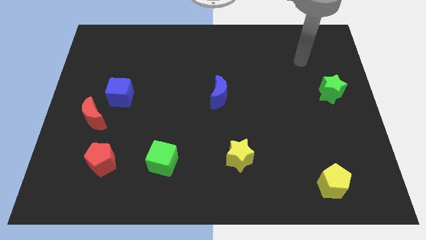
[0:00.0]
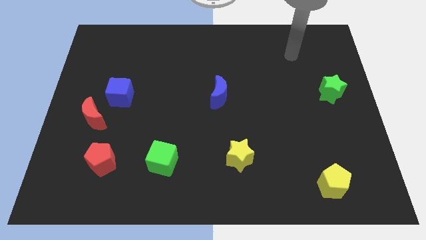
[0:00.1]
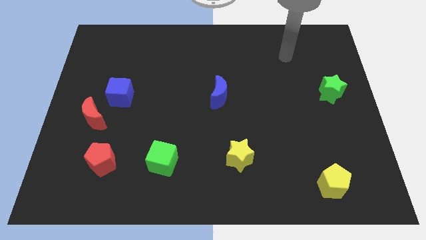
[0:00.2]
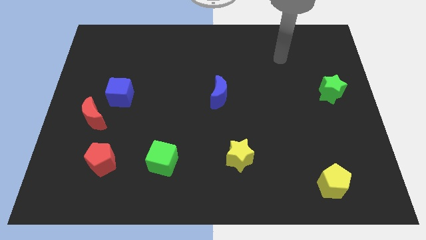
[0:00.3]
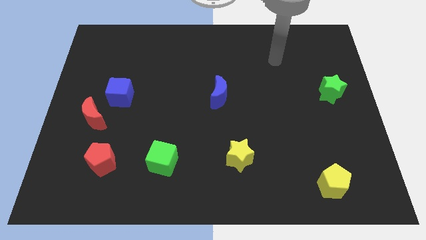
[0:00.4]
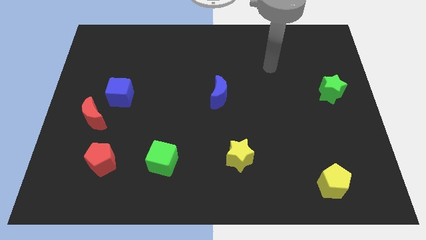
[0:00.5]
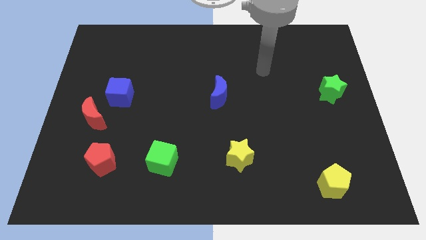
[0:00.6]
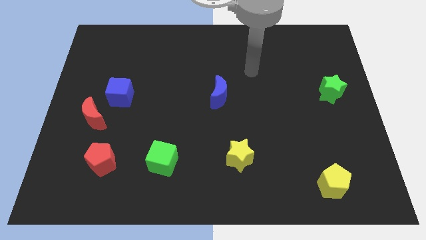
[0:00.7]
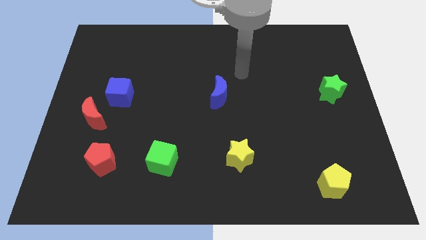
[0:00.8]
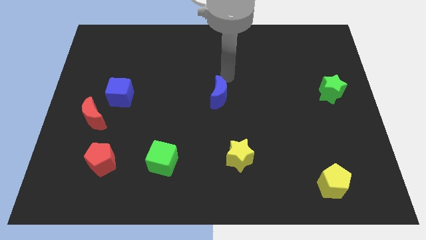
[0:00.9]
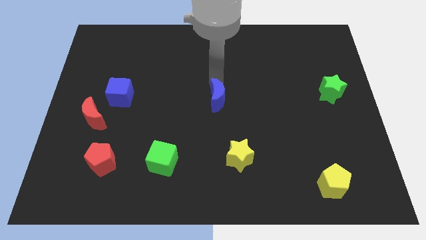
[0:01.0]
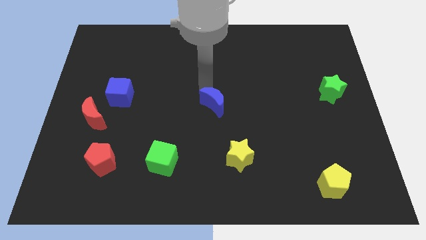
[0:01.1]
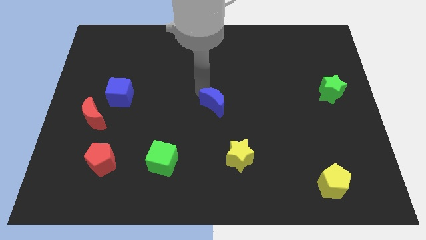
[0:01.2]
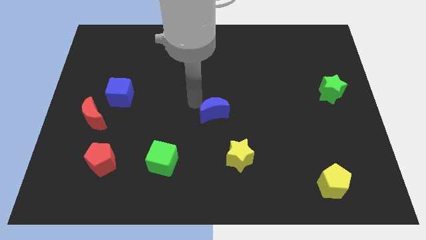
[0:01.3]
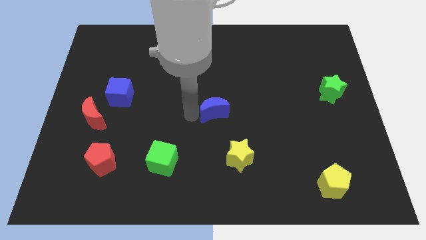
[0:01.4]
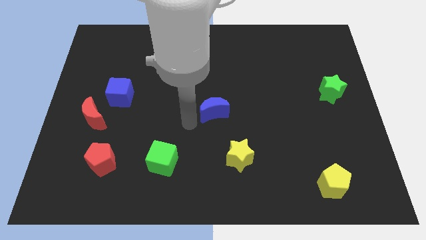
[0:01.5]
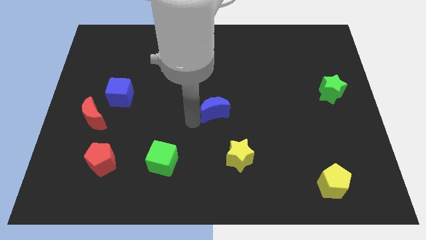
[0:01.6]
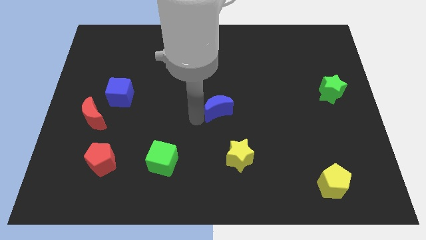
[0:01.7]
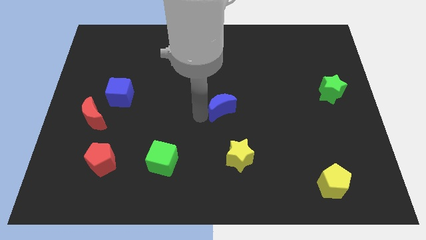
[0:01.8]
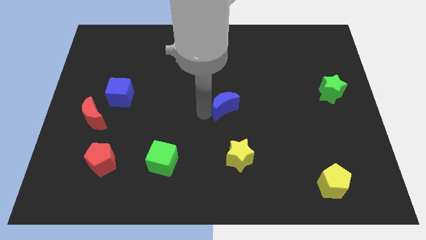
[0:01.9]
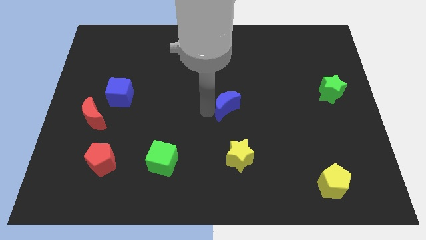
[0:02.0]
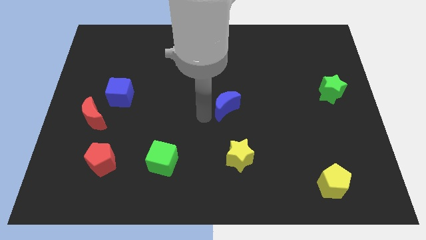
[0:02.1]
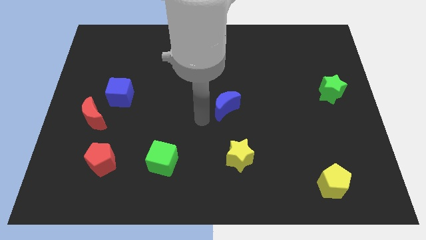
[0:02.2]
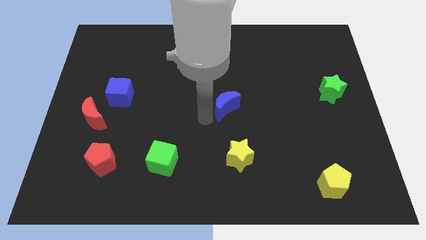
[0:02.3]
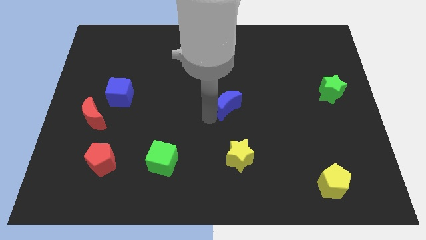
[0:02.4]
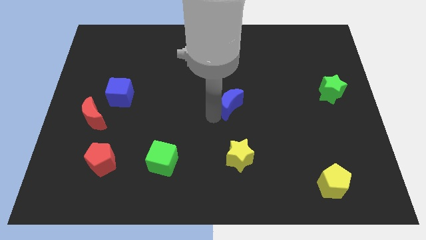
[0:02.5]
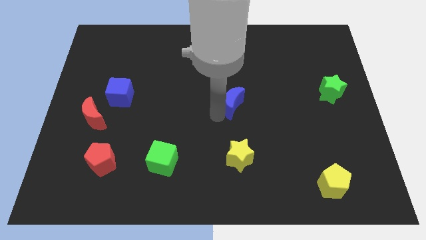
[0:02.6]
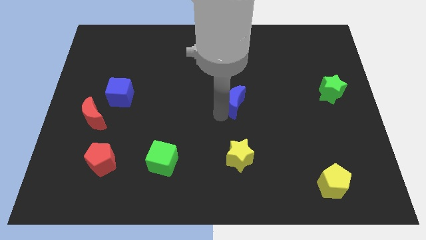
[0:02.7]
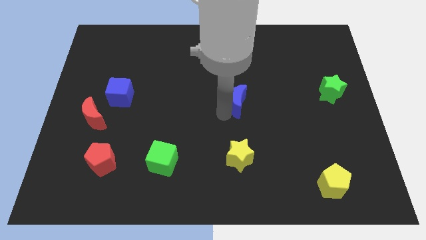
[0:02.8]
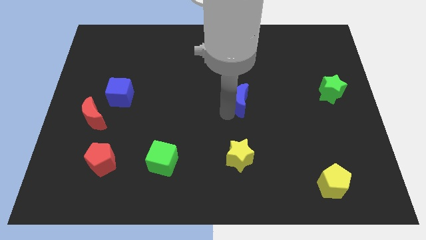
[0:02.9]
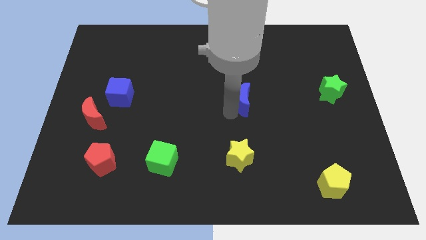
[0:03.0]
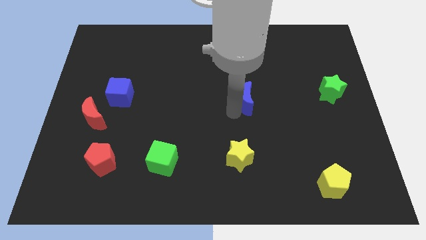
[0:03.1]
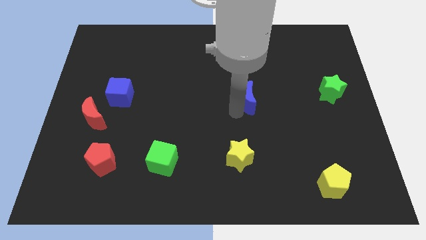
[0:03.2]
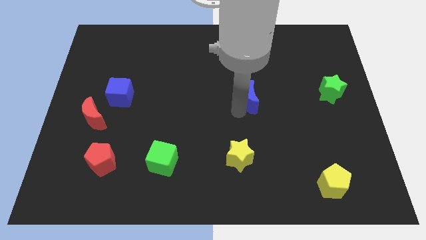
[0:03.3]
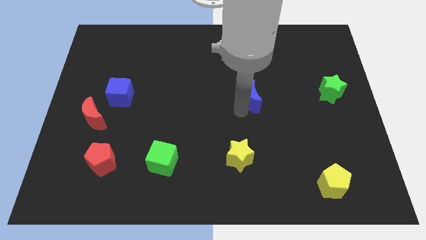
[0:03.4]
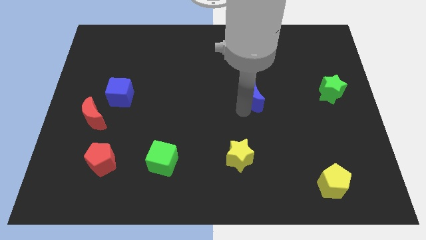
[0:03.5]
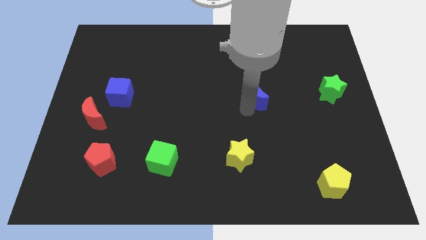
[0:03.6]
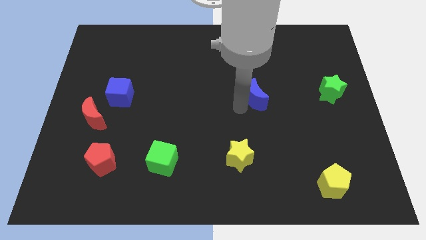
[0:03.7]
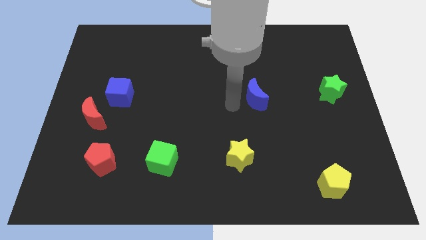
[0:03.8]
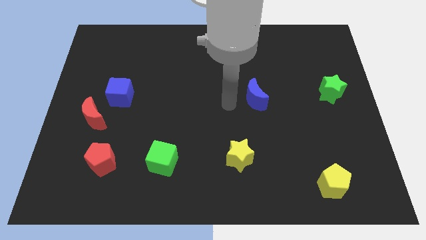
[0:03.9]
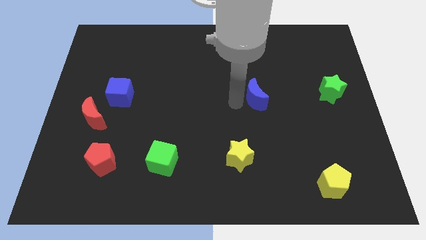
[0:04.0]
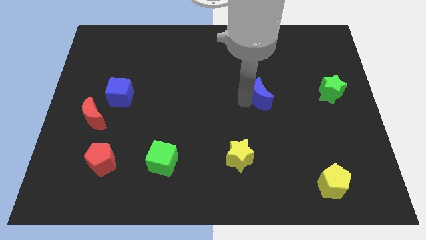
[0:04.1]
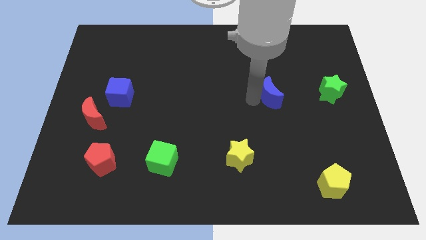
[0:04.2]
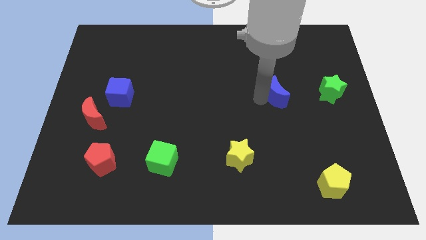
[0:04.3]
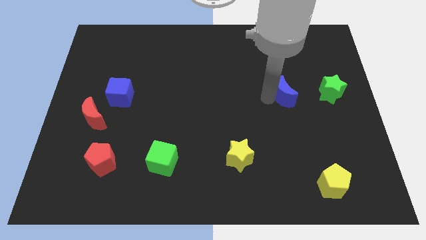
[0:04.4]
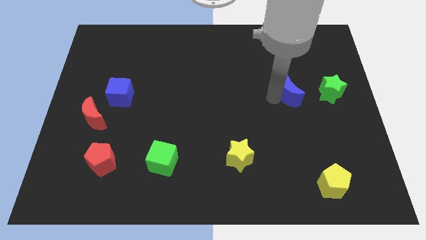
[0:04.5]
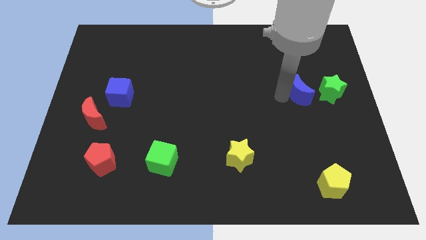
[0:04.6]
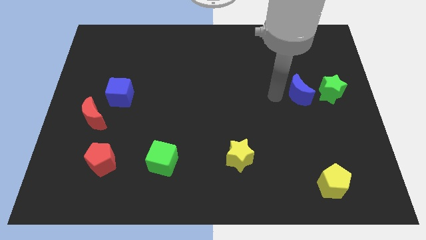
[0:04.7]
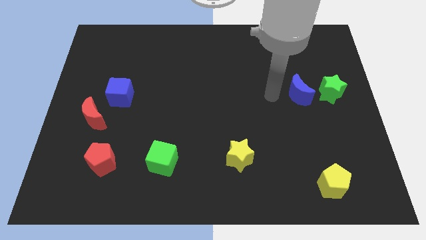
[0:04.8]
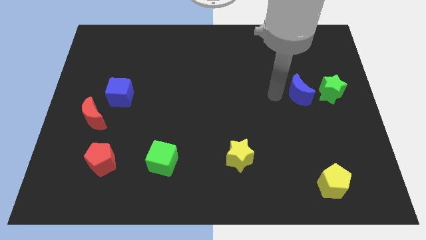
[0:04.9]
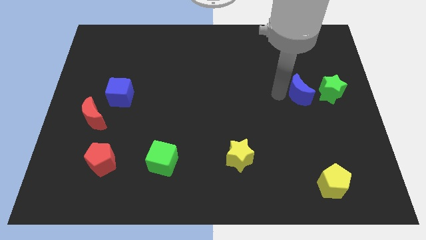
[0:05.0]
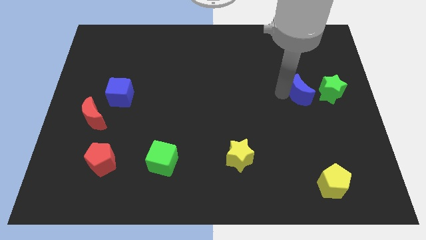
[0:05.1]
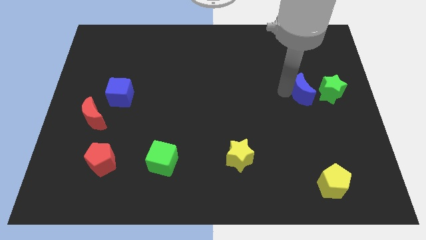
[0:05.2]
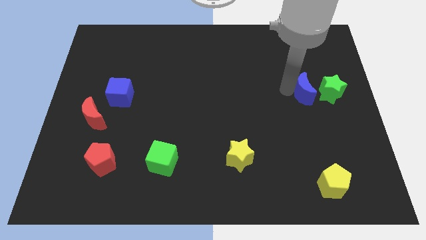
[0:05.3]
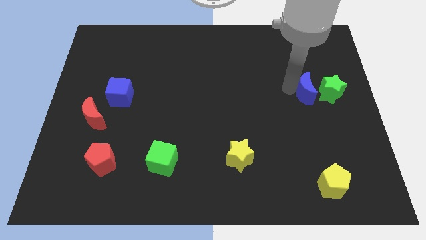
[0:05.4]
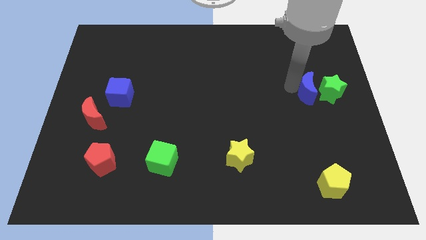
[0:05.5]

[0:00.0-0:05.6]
push the blue moon to the green star

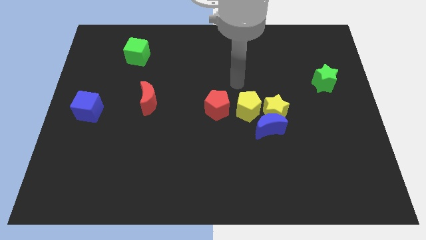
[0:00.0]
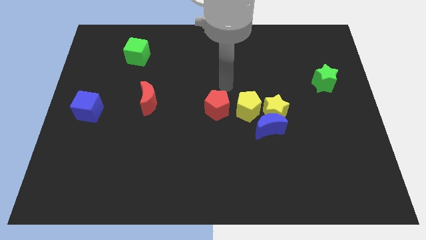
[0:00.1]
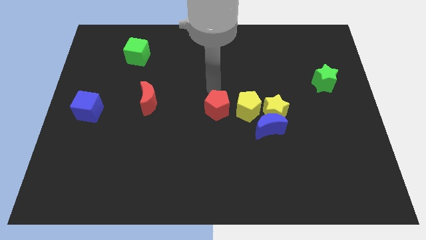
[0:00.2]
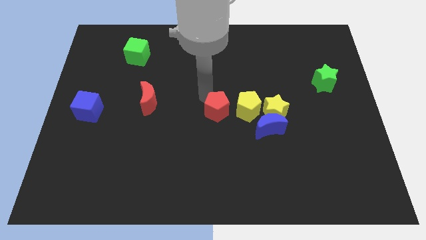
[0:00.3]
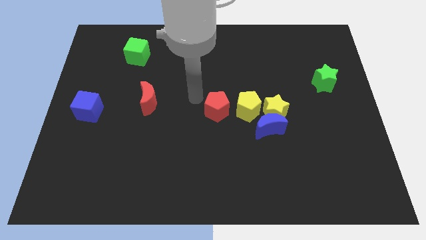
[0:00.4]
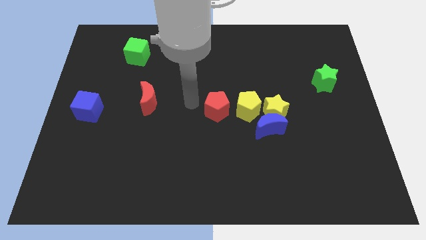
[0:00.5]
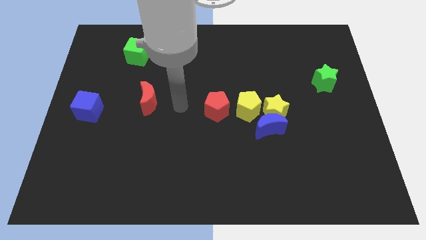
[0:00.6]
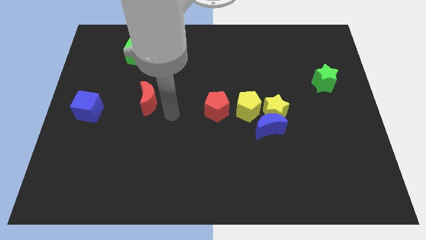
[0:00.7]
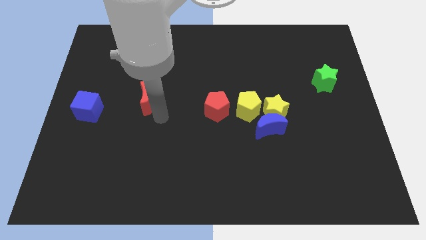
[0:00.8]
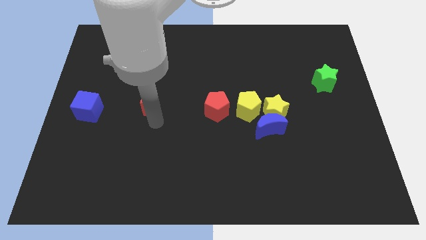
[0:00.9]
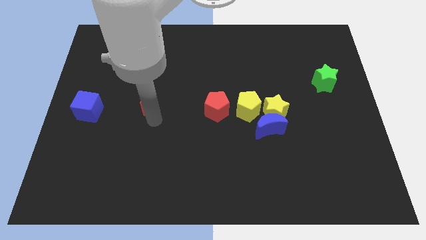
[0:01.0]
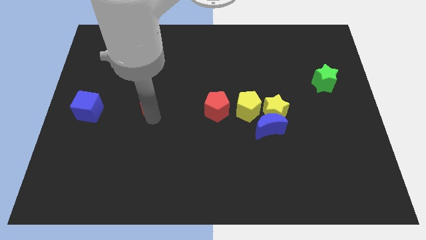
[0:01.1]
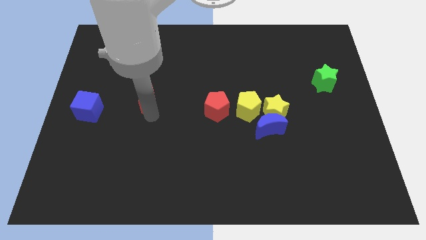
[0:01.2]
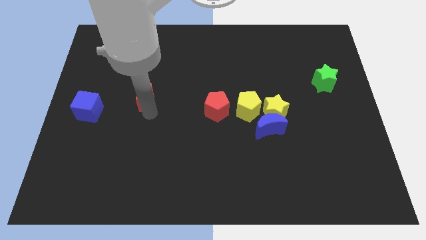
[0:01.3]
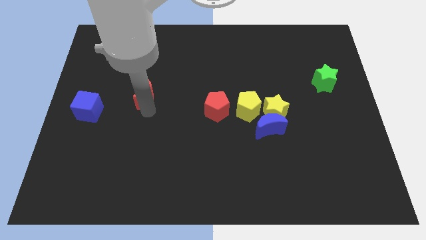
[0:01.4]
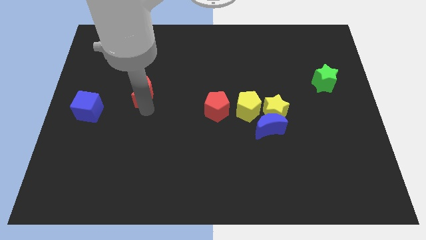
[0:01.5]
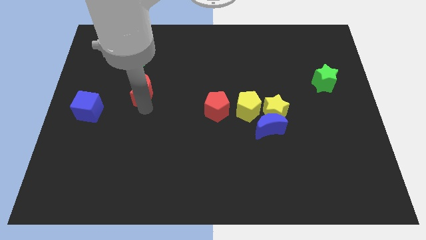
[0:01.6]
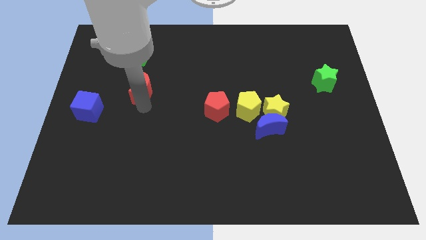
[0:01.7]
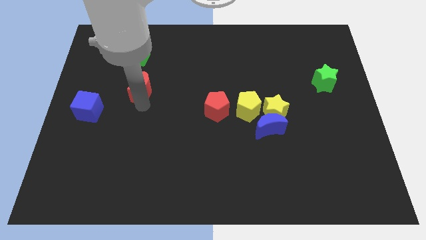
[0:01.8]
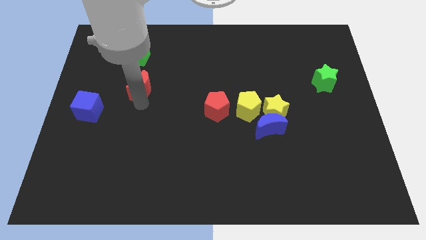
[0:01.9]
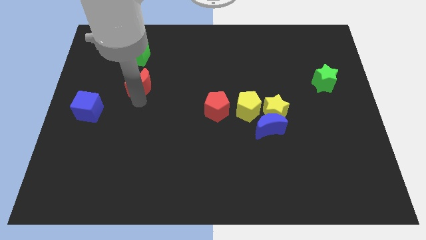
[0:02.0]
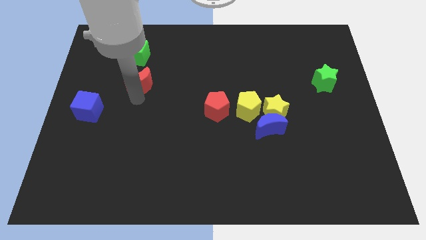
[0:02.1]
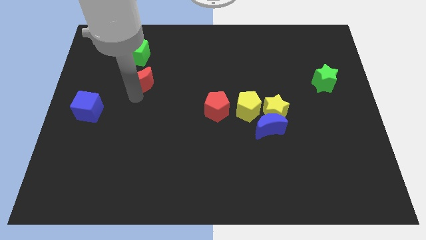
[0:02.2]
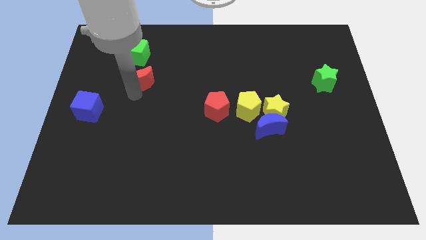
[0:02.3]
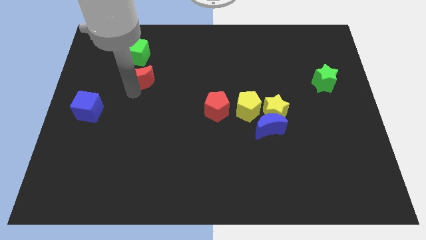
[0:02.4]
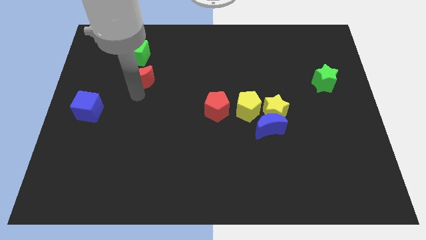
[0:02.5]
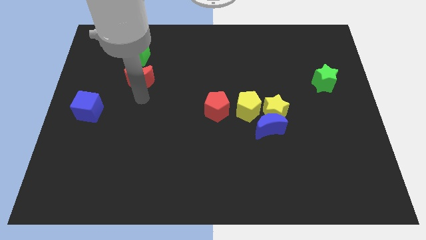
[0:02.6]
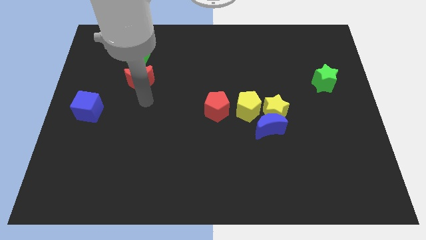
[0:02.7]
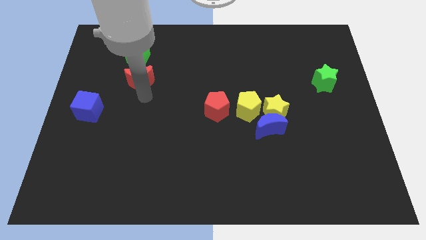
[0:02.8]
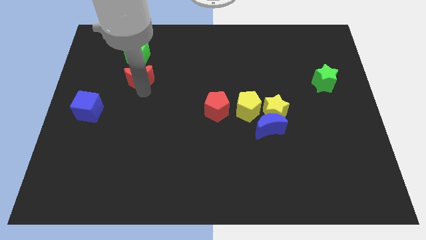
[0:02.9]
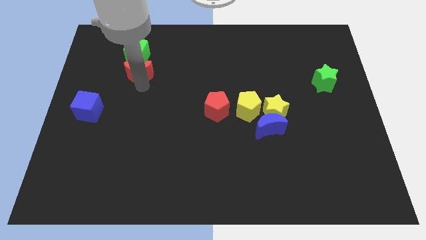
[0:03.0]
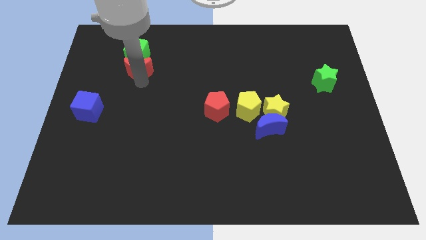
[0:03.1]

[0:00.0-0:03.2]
move the red moon next to the green cube
